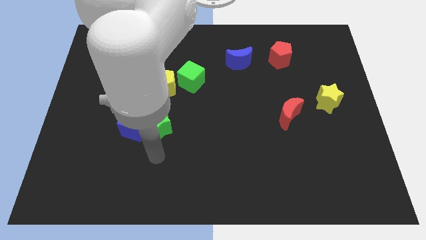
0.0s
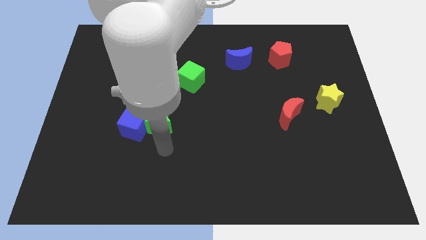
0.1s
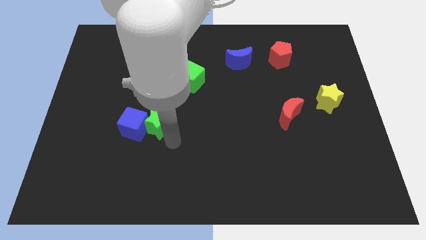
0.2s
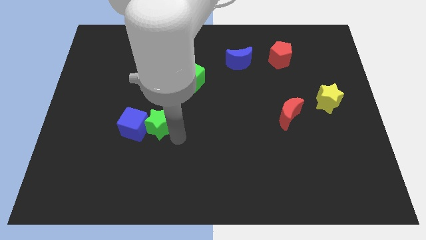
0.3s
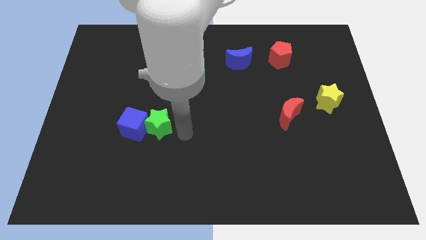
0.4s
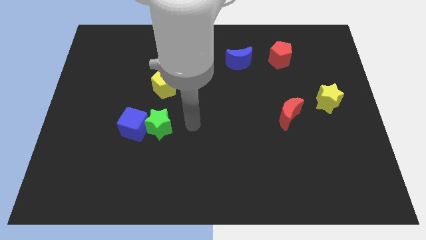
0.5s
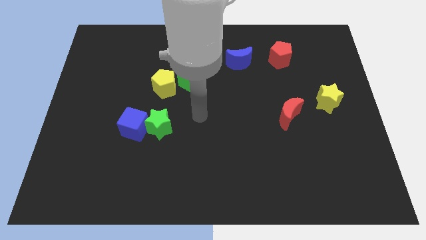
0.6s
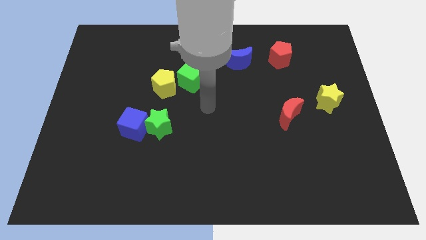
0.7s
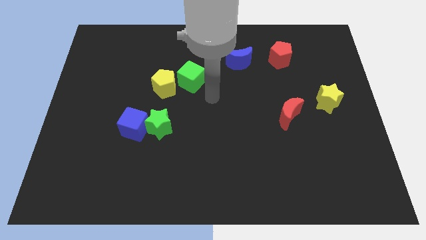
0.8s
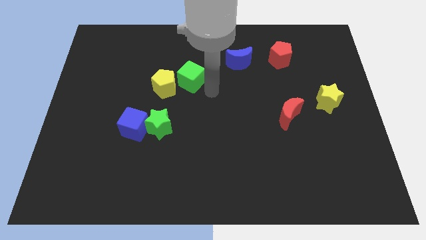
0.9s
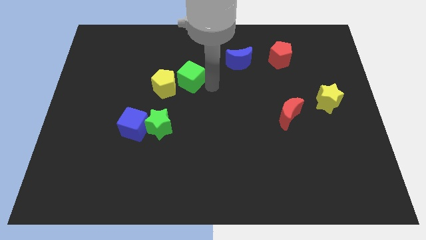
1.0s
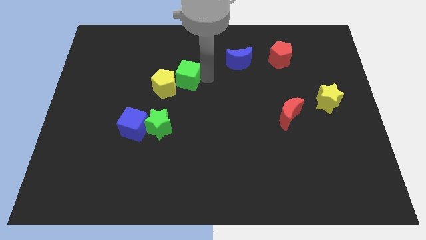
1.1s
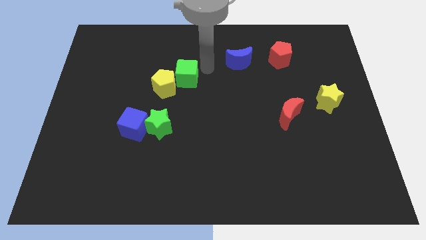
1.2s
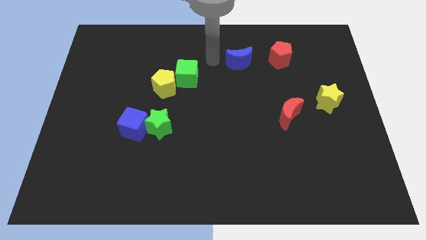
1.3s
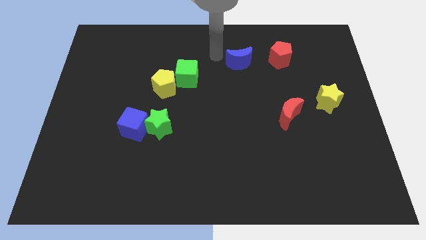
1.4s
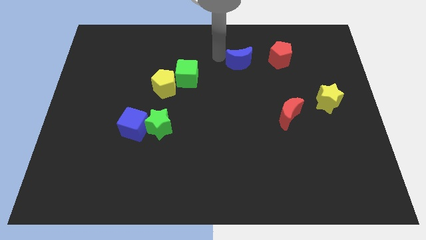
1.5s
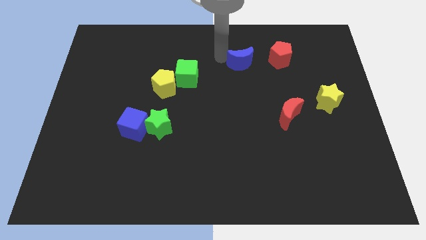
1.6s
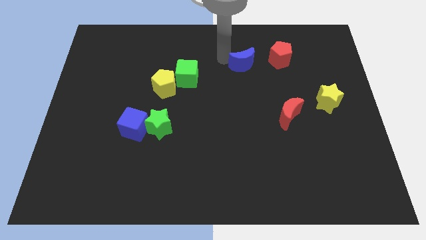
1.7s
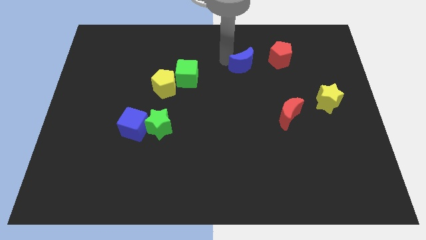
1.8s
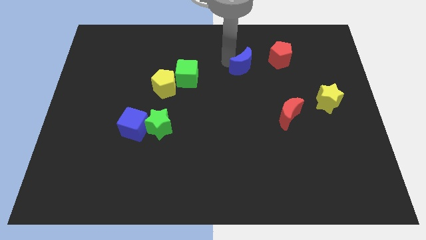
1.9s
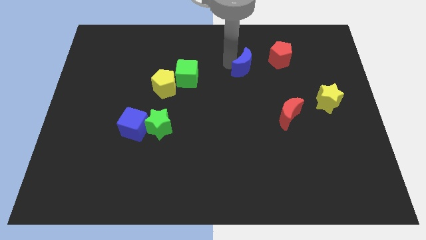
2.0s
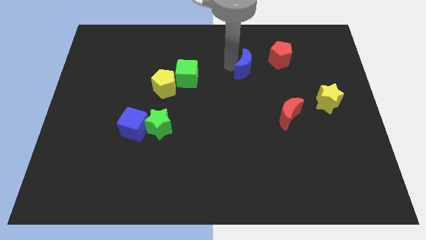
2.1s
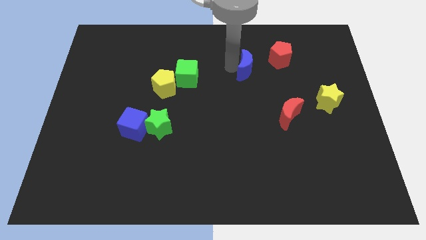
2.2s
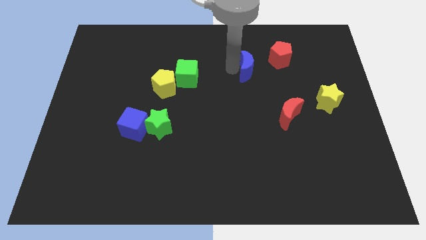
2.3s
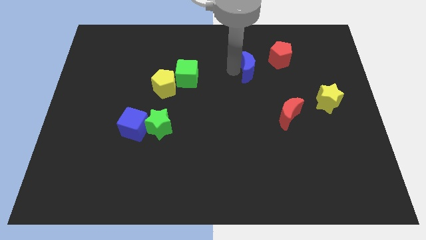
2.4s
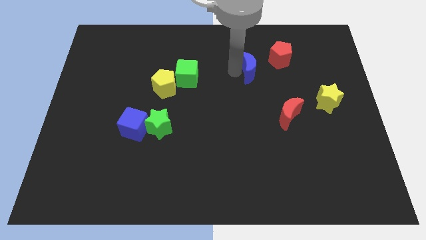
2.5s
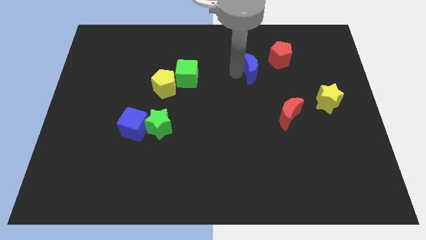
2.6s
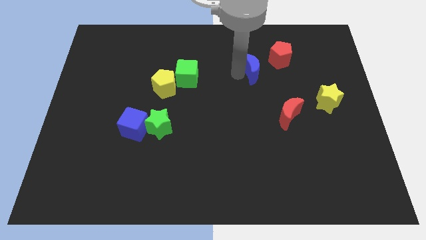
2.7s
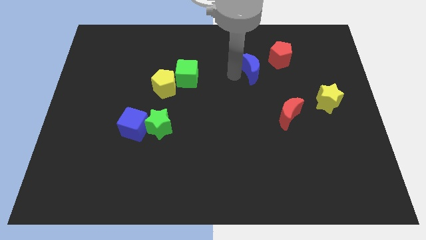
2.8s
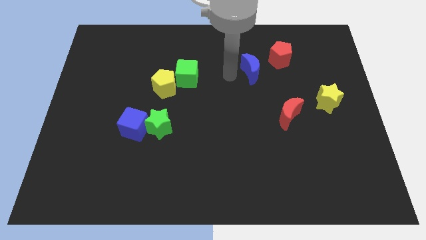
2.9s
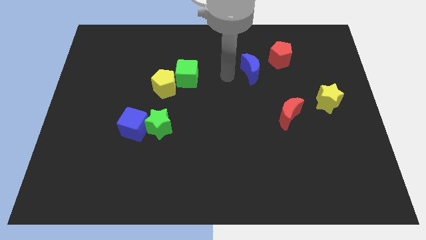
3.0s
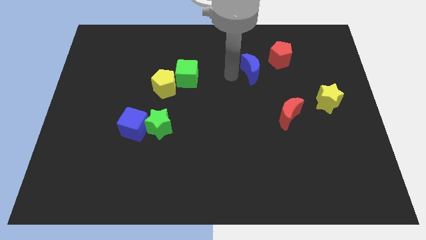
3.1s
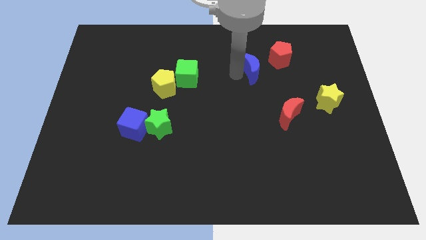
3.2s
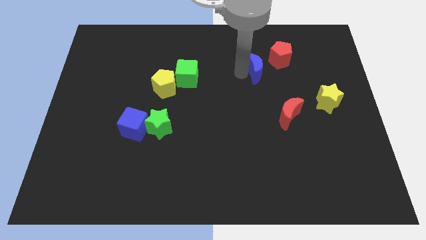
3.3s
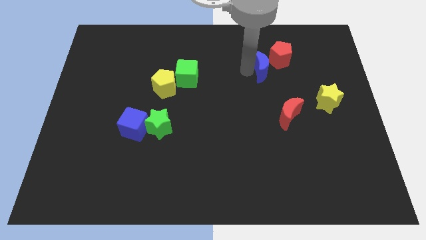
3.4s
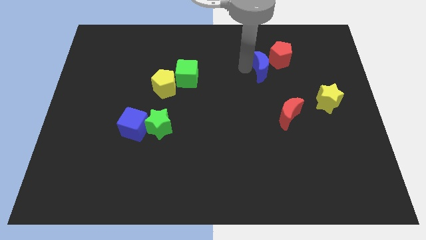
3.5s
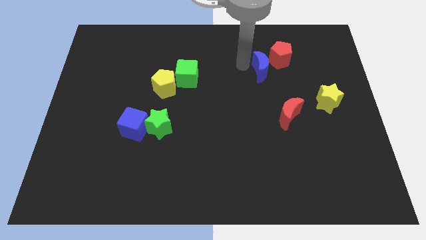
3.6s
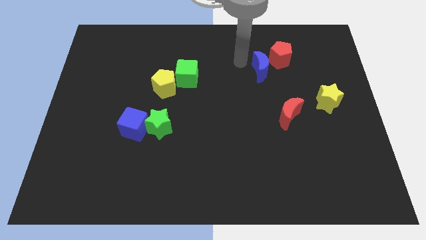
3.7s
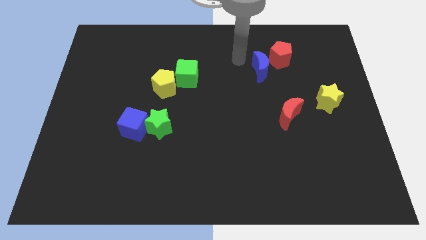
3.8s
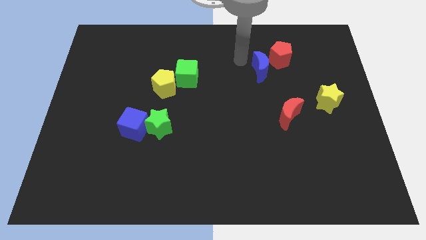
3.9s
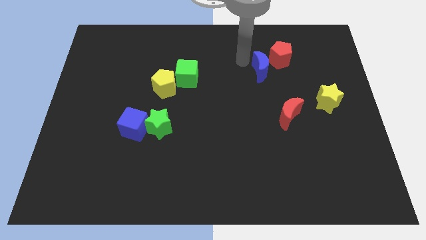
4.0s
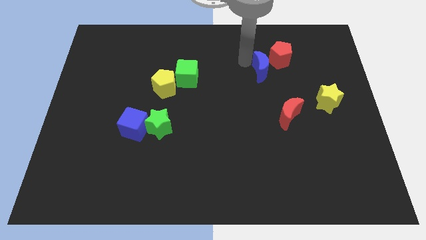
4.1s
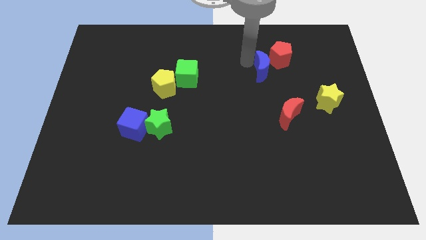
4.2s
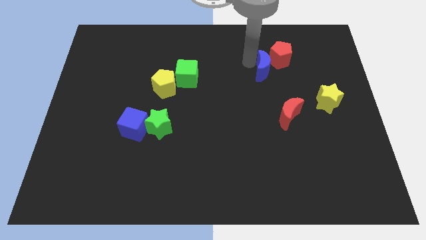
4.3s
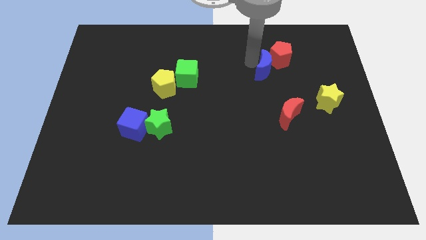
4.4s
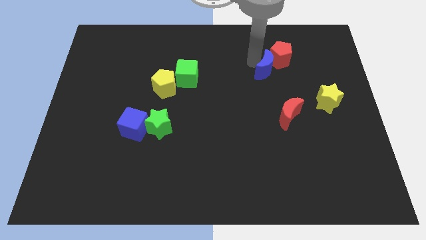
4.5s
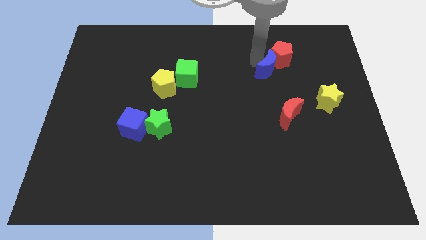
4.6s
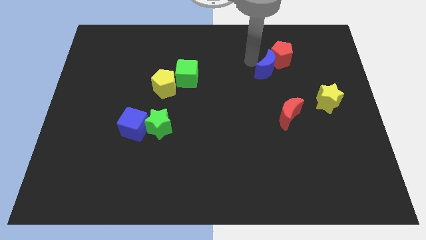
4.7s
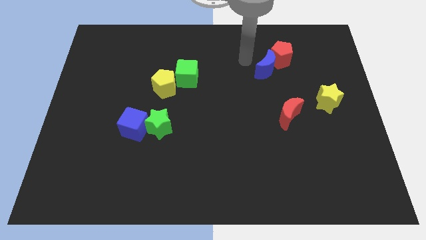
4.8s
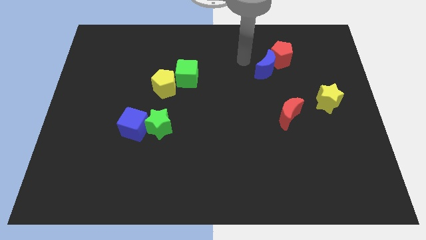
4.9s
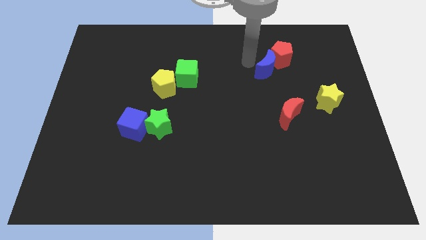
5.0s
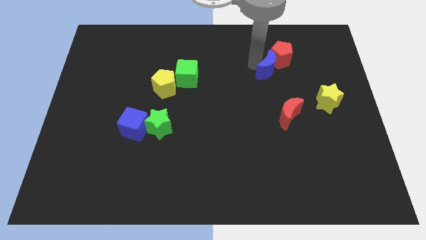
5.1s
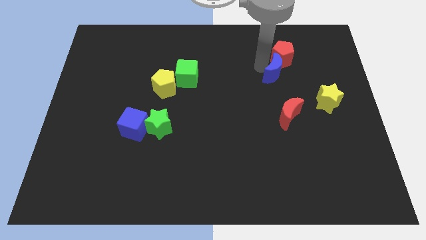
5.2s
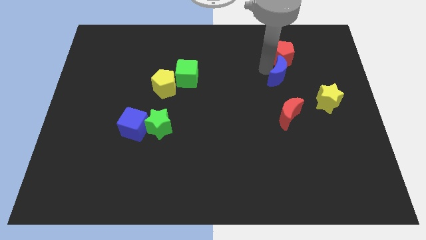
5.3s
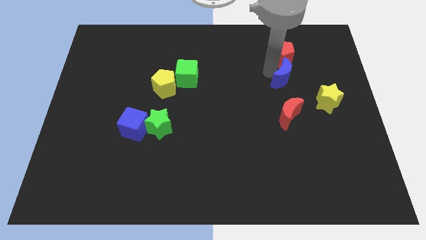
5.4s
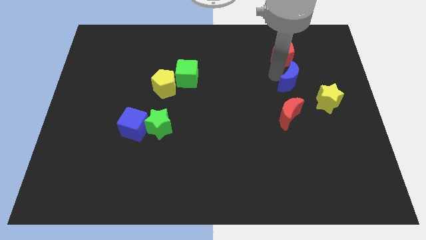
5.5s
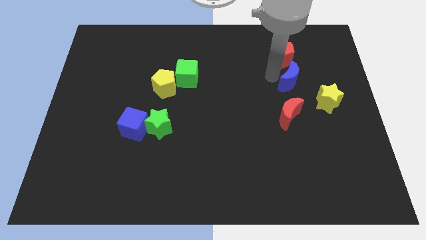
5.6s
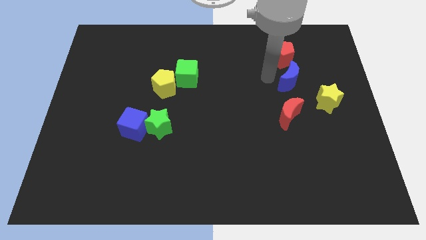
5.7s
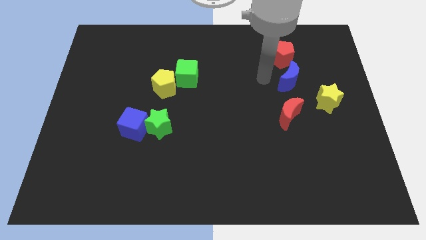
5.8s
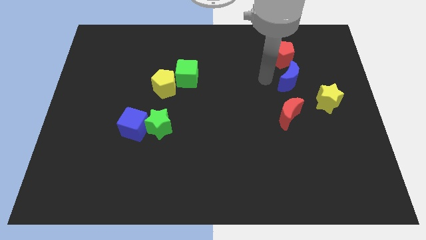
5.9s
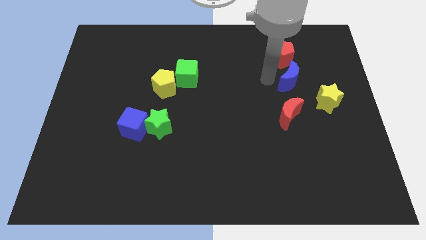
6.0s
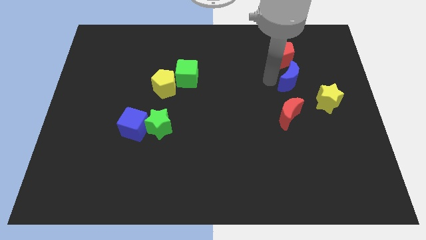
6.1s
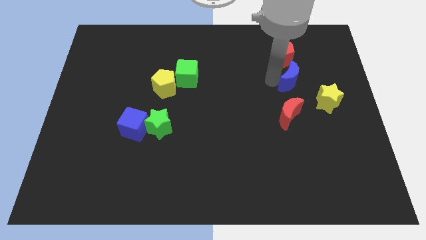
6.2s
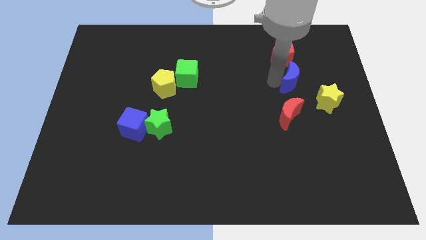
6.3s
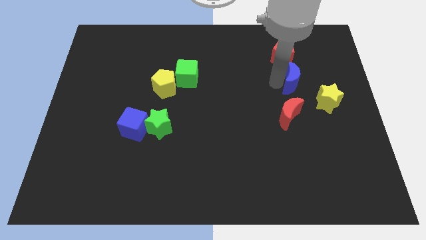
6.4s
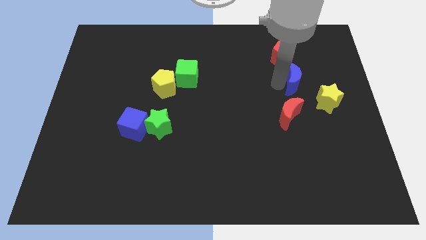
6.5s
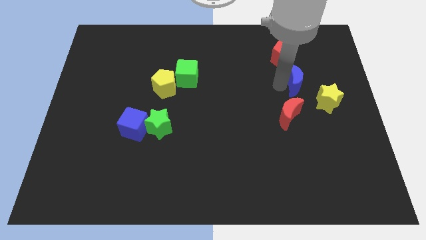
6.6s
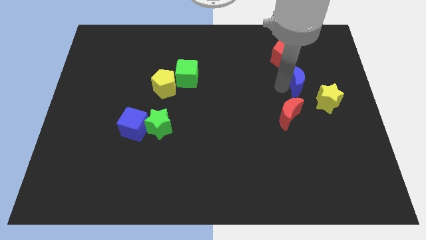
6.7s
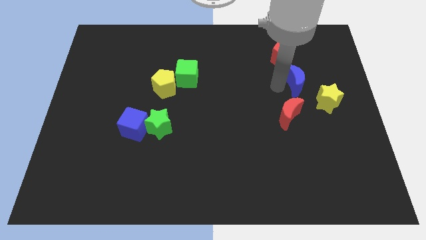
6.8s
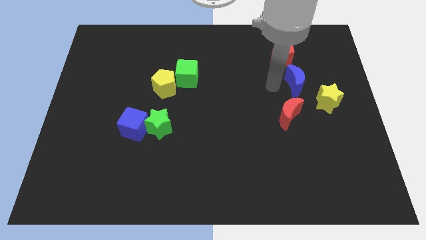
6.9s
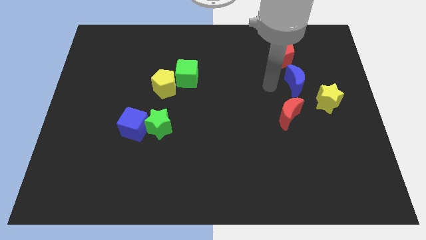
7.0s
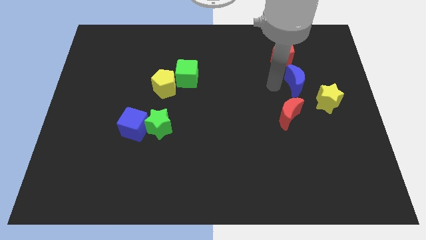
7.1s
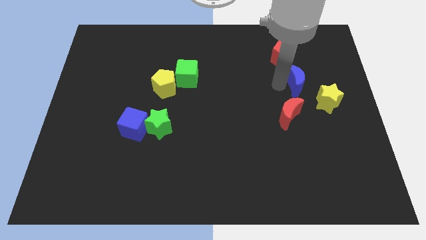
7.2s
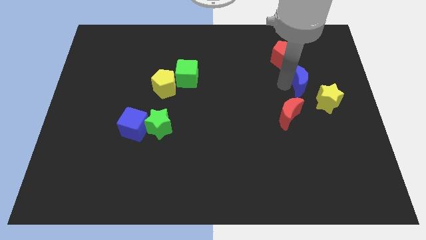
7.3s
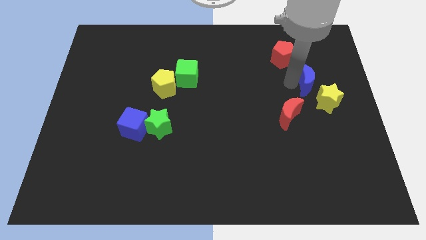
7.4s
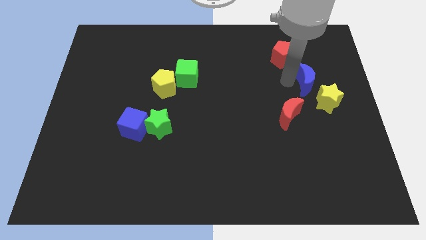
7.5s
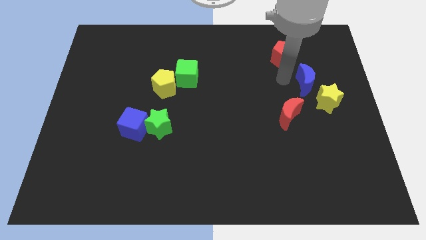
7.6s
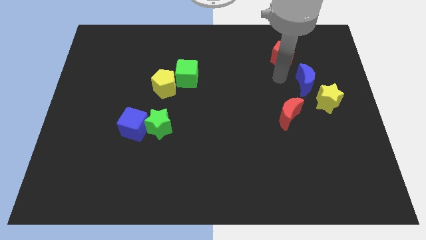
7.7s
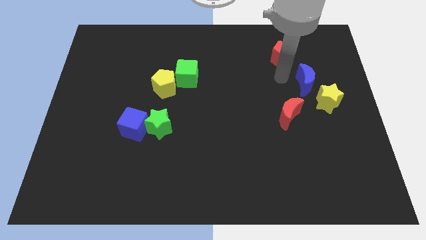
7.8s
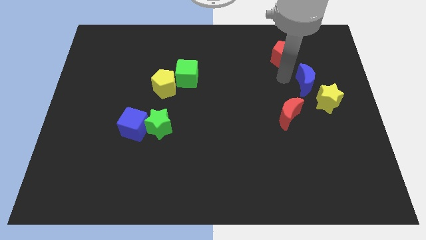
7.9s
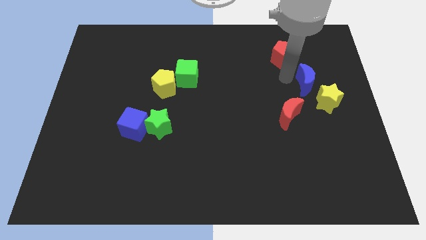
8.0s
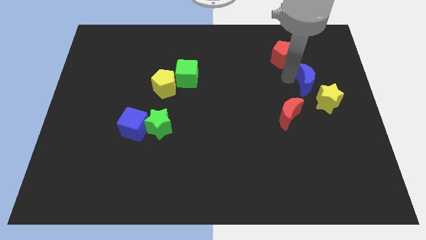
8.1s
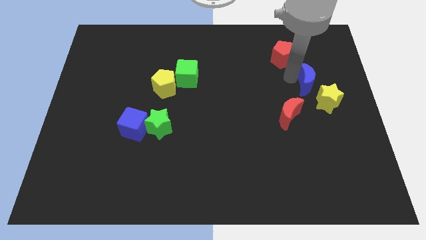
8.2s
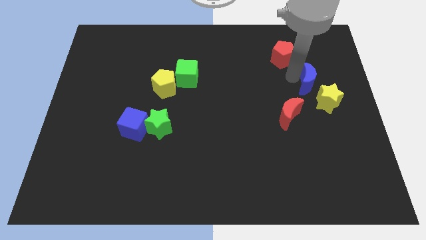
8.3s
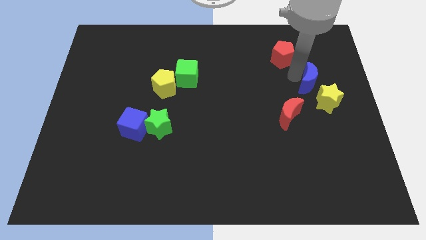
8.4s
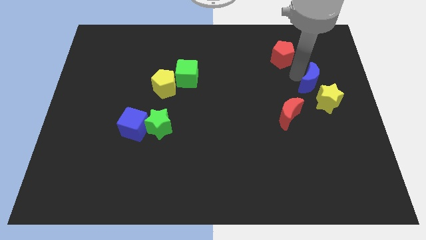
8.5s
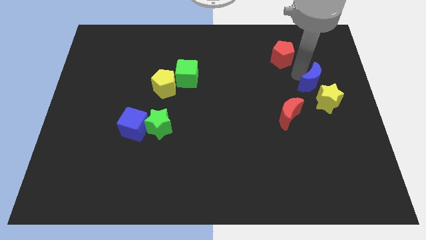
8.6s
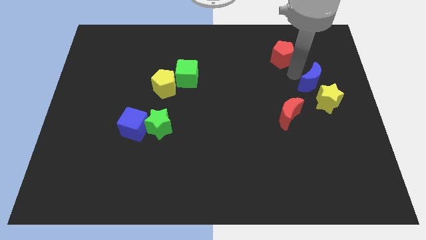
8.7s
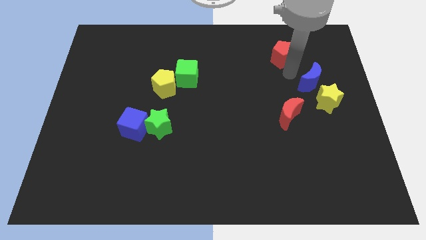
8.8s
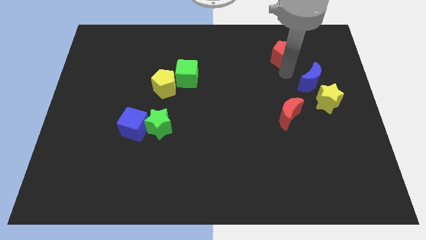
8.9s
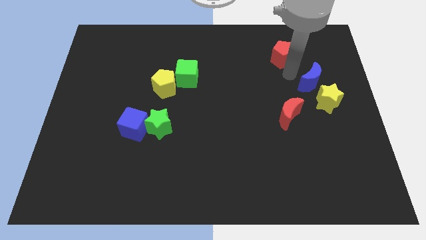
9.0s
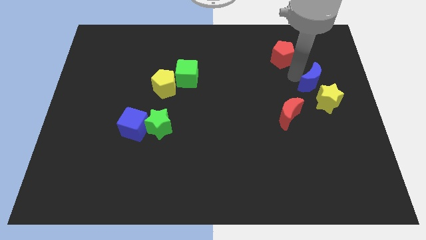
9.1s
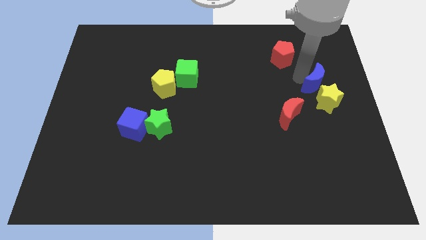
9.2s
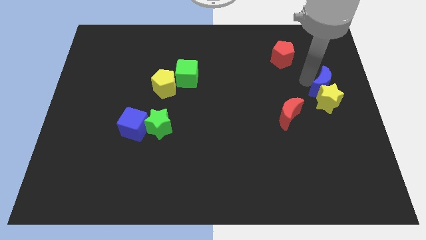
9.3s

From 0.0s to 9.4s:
move the blue moon to the right side
